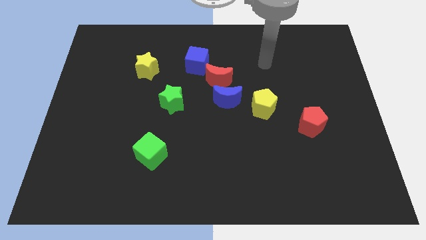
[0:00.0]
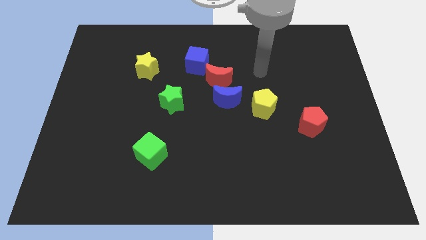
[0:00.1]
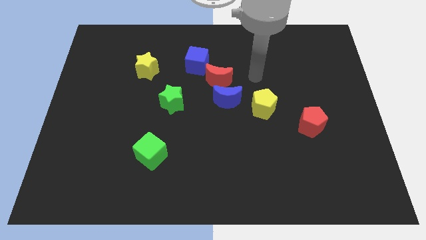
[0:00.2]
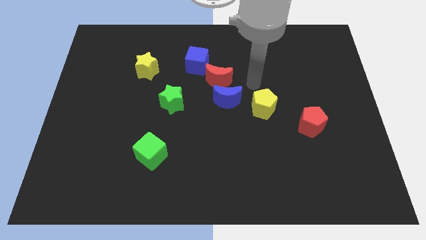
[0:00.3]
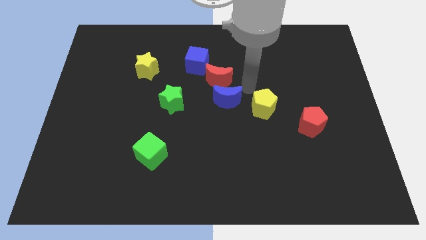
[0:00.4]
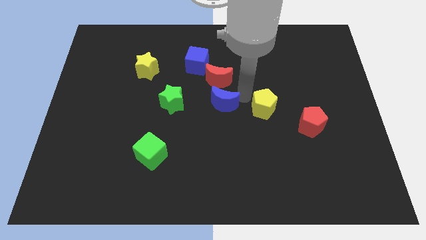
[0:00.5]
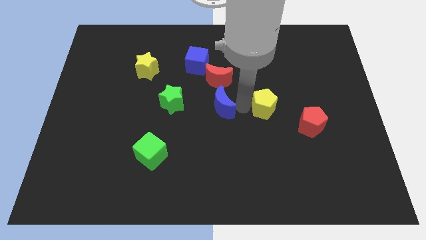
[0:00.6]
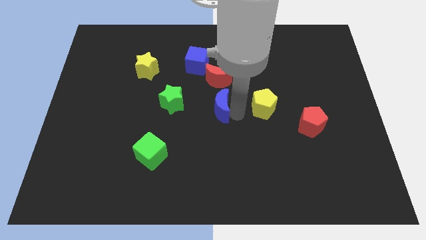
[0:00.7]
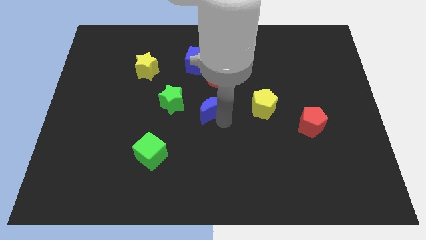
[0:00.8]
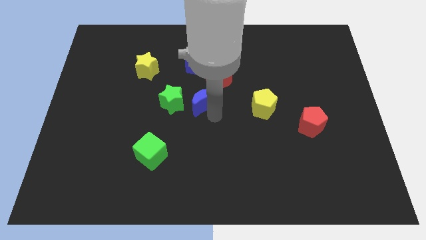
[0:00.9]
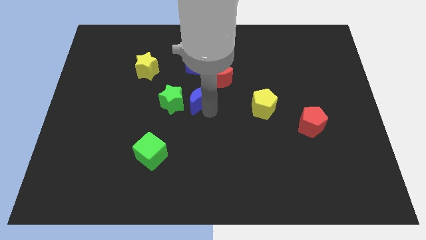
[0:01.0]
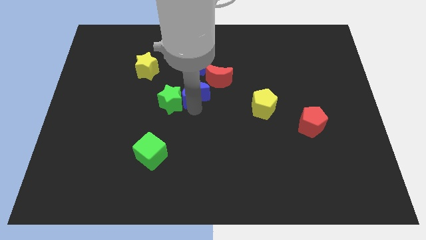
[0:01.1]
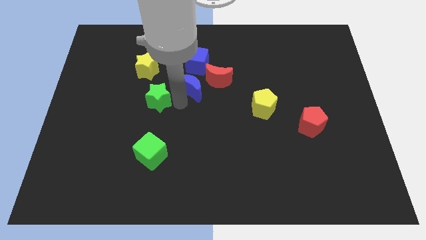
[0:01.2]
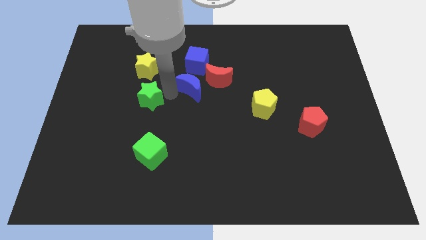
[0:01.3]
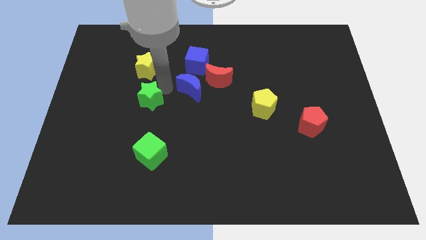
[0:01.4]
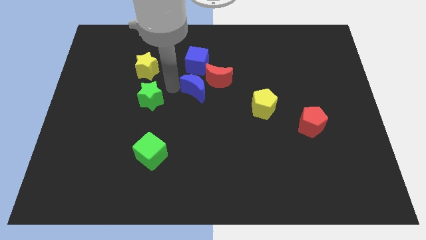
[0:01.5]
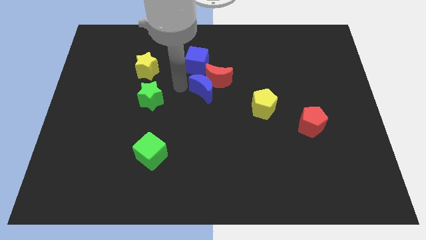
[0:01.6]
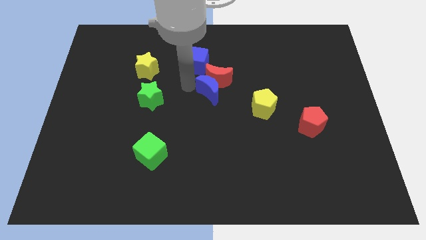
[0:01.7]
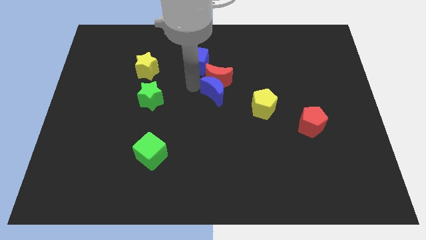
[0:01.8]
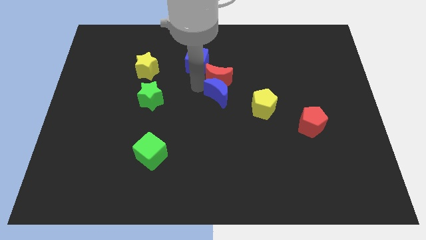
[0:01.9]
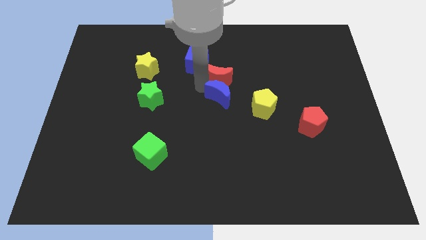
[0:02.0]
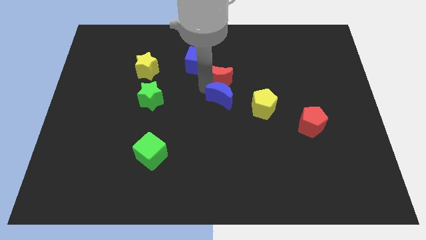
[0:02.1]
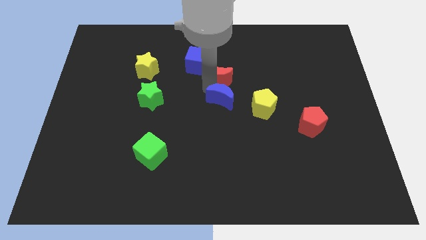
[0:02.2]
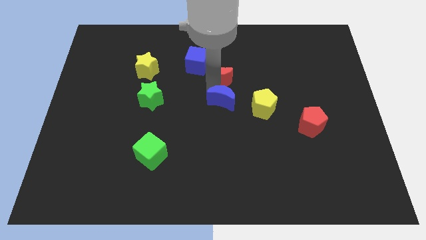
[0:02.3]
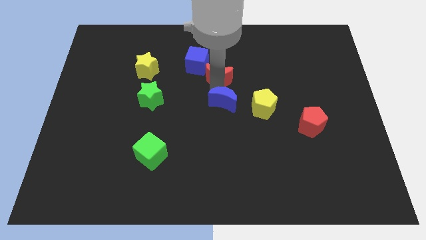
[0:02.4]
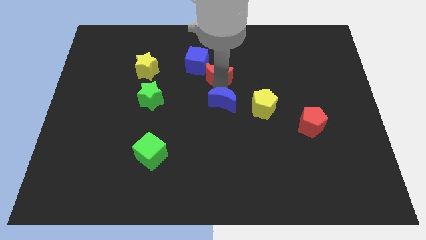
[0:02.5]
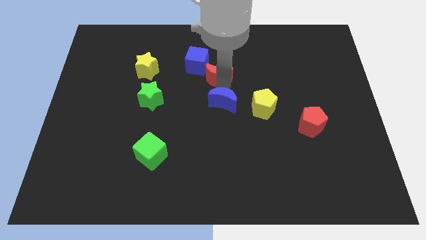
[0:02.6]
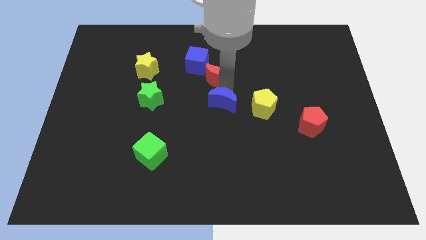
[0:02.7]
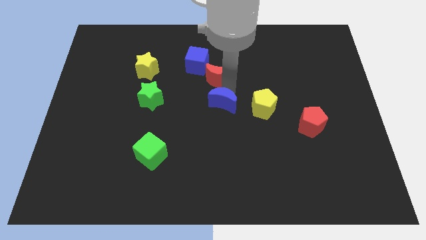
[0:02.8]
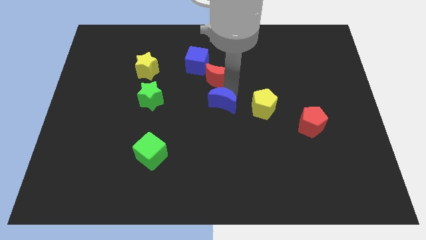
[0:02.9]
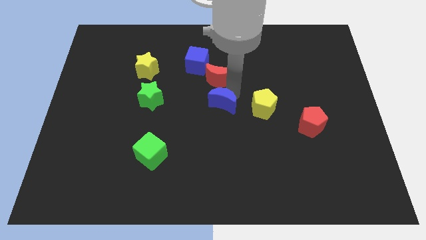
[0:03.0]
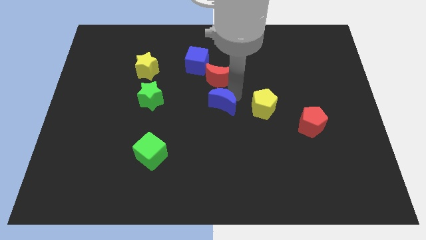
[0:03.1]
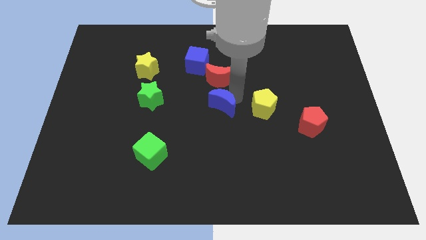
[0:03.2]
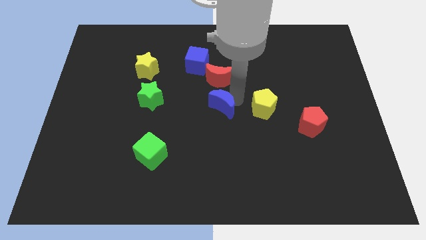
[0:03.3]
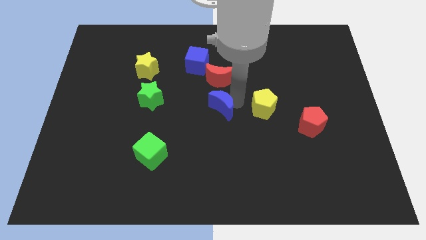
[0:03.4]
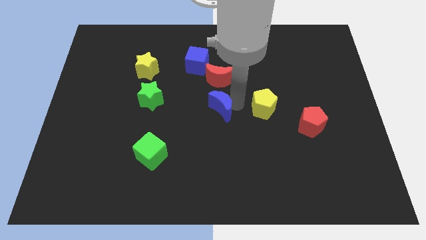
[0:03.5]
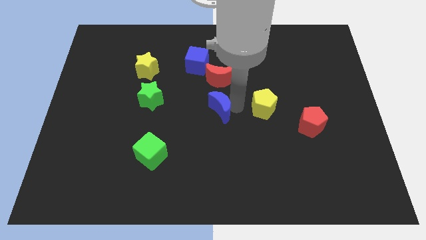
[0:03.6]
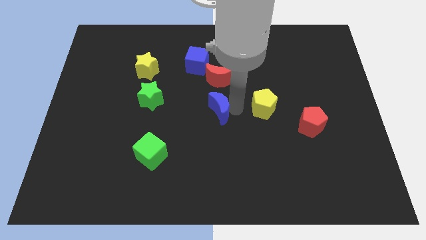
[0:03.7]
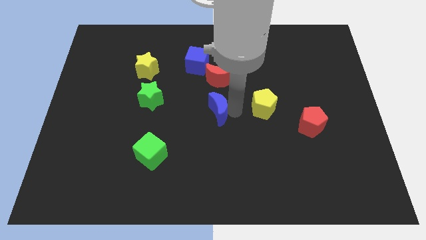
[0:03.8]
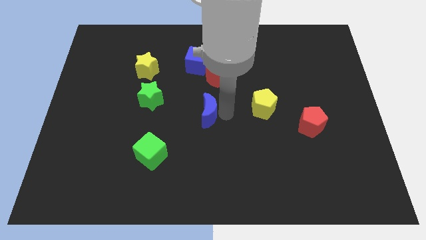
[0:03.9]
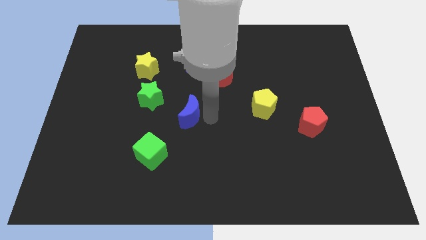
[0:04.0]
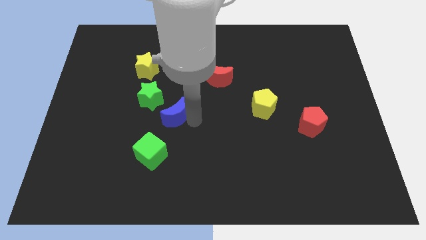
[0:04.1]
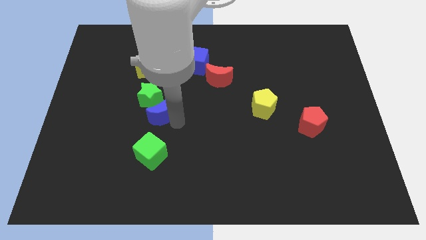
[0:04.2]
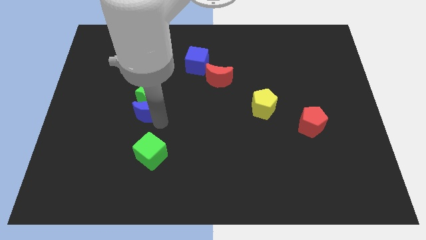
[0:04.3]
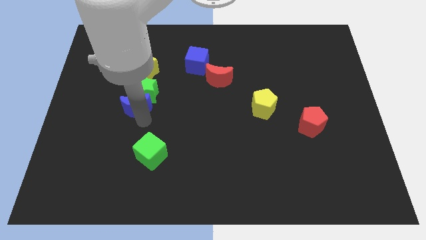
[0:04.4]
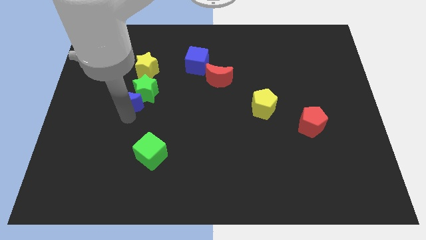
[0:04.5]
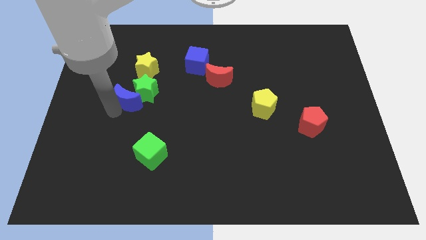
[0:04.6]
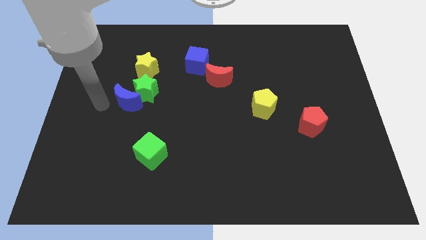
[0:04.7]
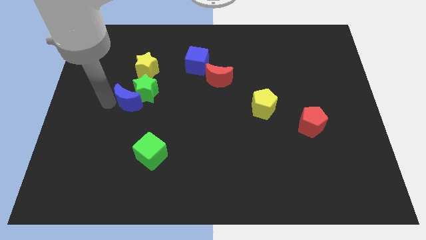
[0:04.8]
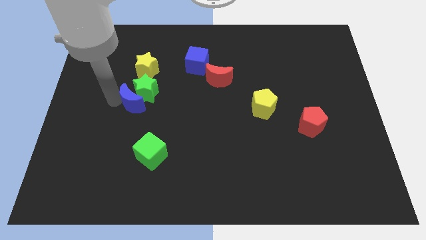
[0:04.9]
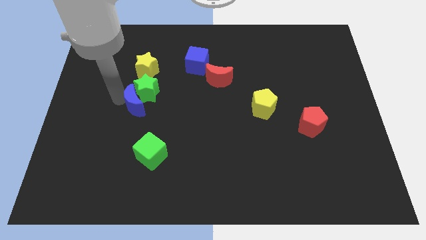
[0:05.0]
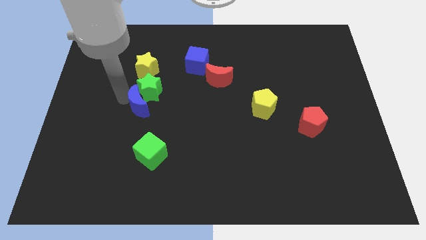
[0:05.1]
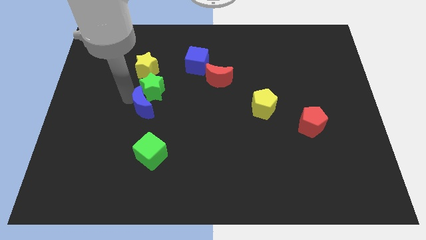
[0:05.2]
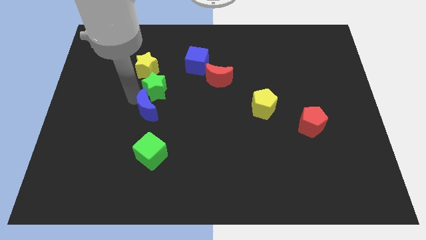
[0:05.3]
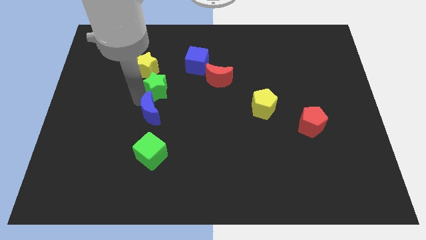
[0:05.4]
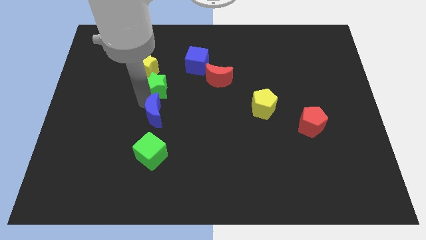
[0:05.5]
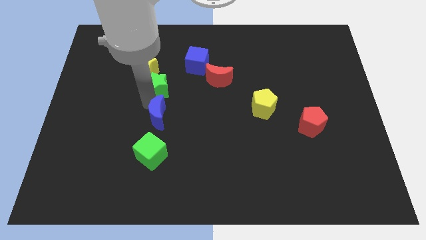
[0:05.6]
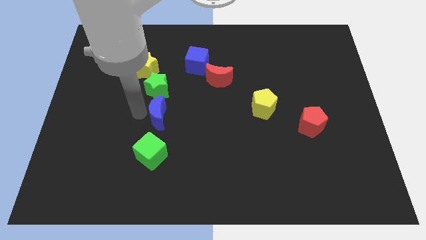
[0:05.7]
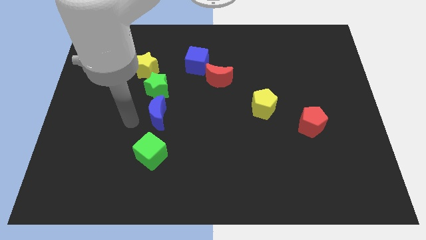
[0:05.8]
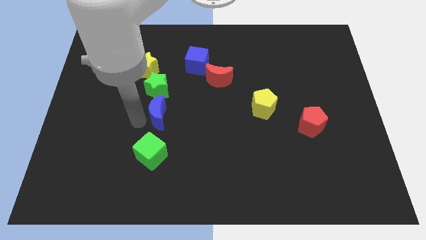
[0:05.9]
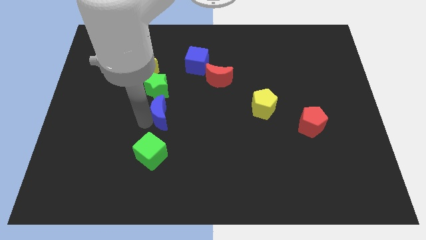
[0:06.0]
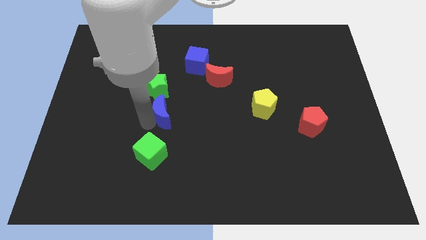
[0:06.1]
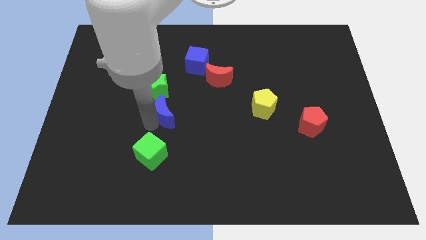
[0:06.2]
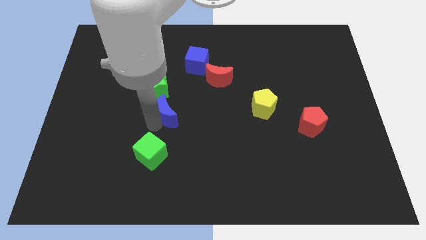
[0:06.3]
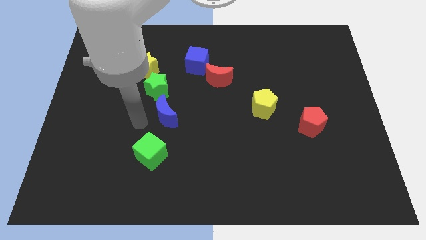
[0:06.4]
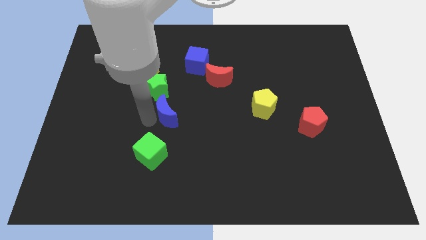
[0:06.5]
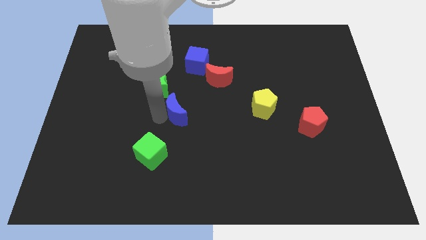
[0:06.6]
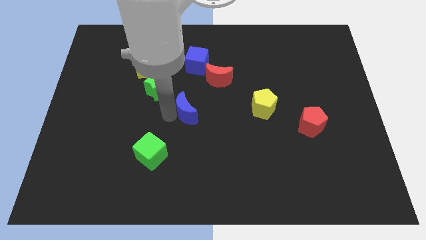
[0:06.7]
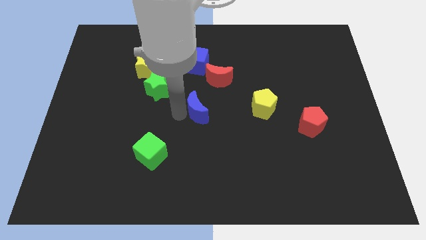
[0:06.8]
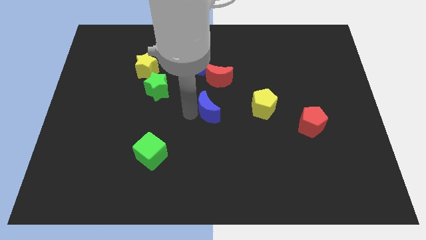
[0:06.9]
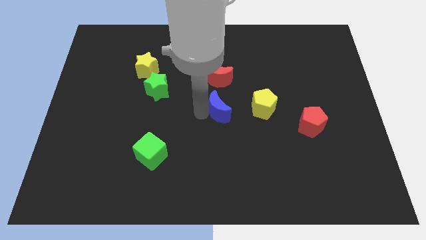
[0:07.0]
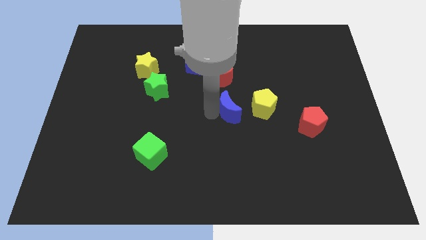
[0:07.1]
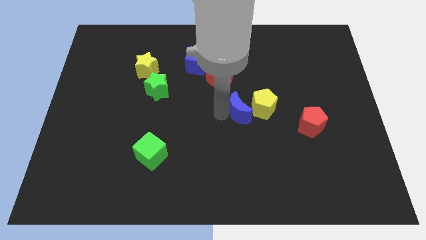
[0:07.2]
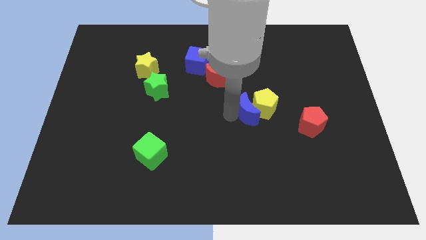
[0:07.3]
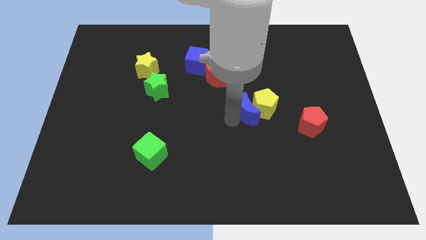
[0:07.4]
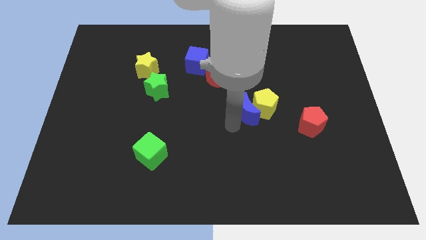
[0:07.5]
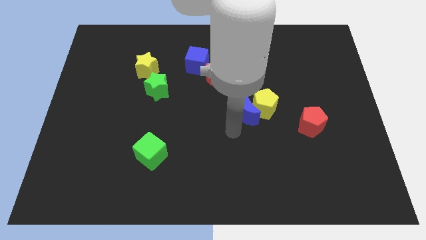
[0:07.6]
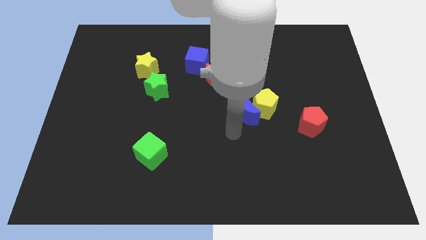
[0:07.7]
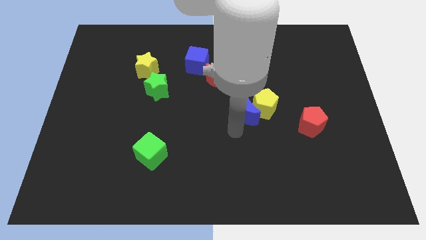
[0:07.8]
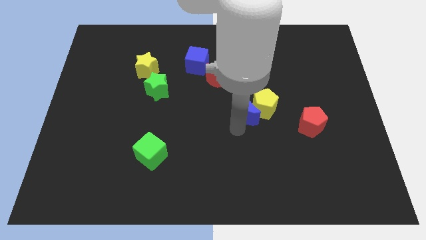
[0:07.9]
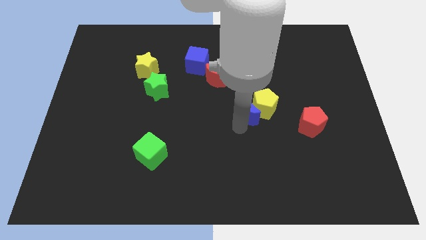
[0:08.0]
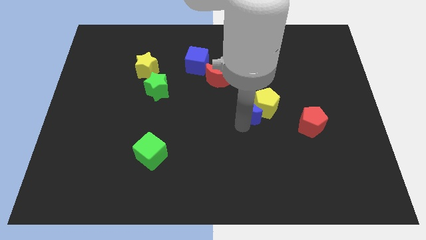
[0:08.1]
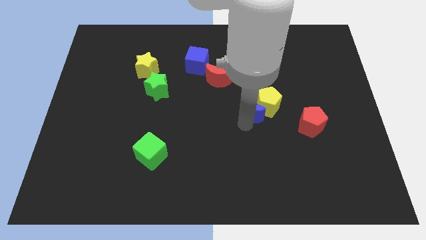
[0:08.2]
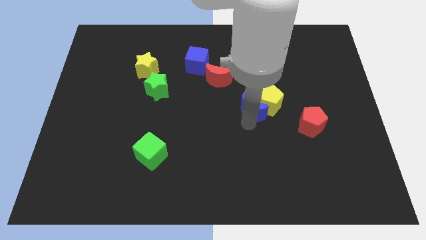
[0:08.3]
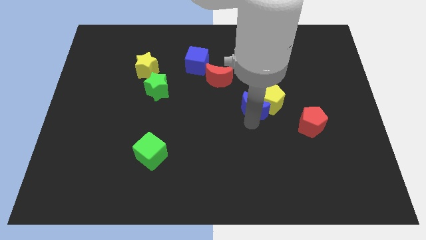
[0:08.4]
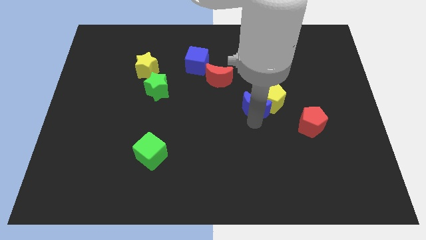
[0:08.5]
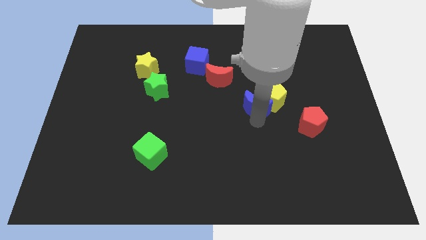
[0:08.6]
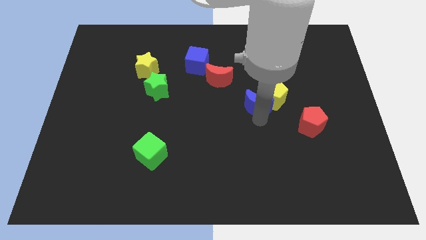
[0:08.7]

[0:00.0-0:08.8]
slide the blue moon right a bit
